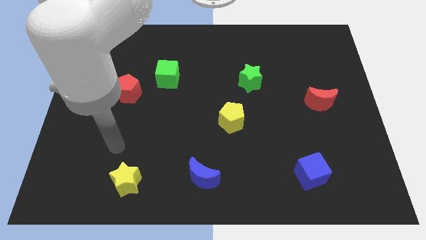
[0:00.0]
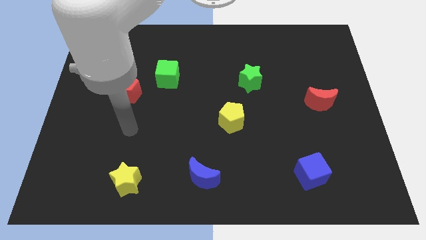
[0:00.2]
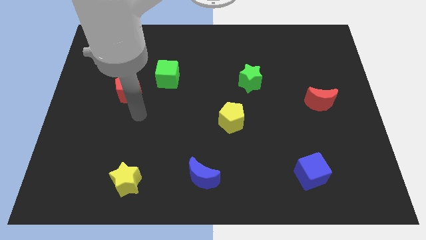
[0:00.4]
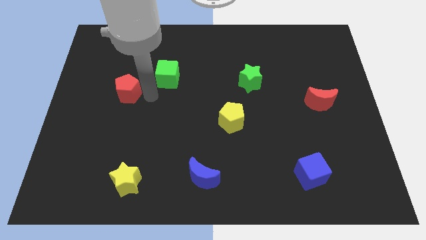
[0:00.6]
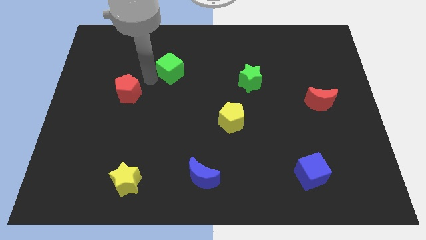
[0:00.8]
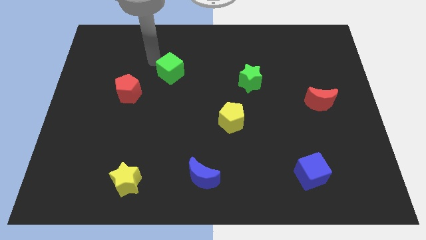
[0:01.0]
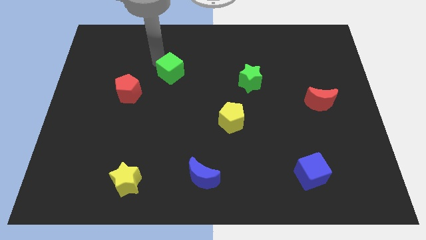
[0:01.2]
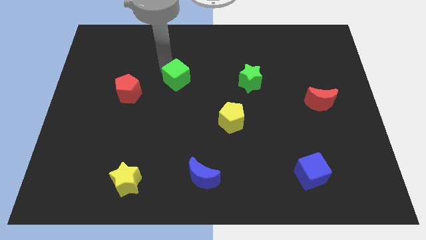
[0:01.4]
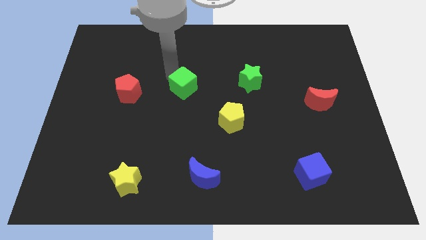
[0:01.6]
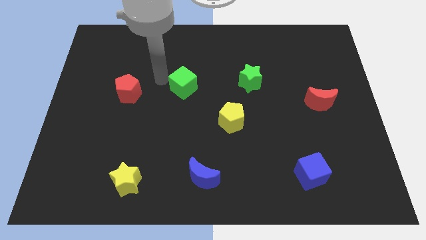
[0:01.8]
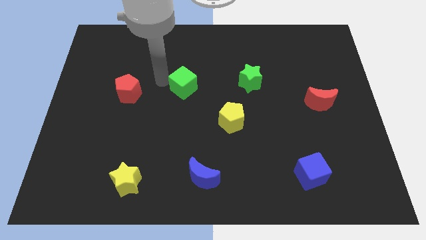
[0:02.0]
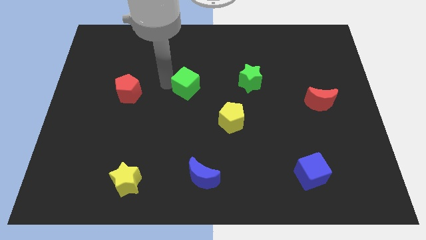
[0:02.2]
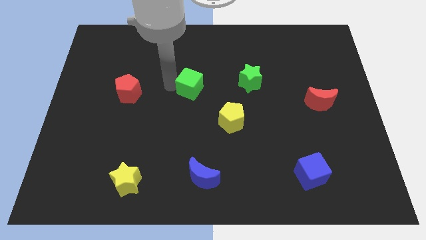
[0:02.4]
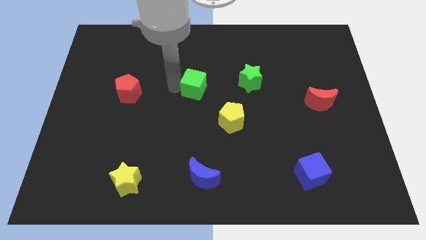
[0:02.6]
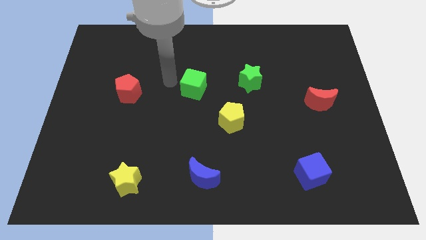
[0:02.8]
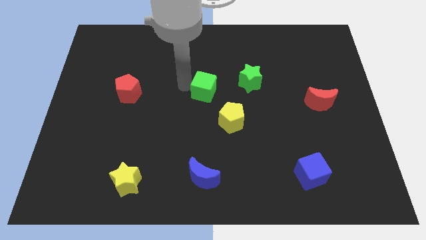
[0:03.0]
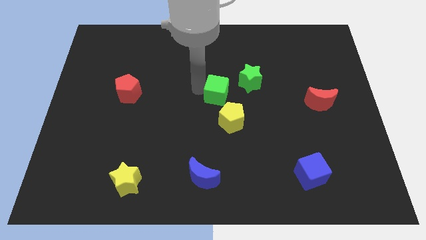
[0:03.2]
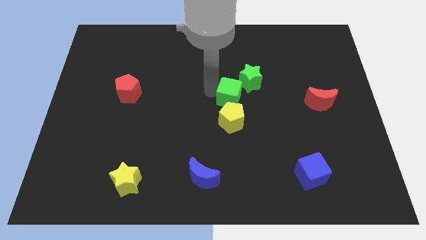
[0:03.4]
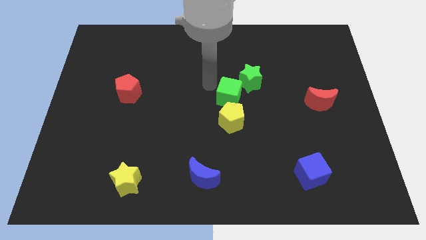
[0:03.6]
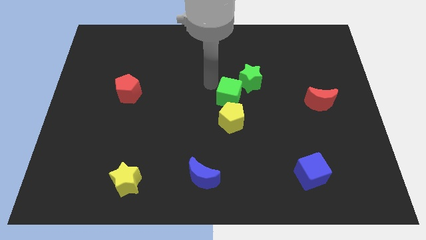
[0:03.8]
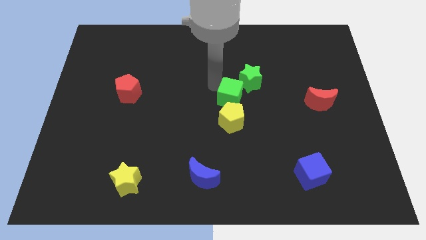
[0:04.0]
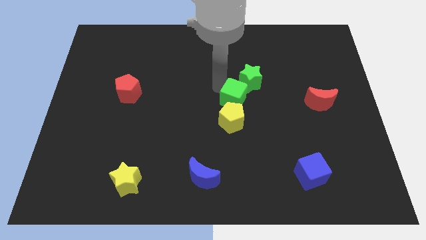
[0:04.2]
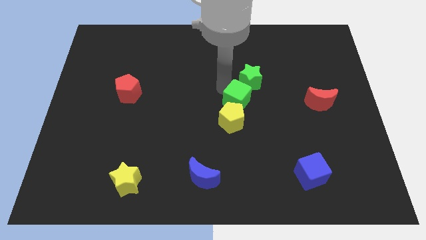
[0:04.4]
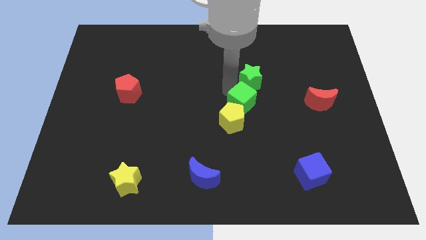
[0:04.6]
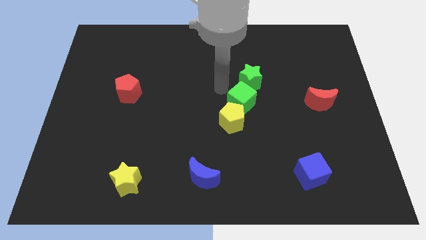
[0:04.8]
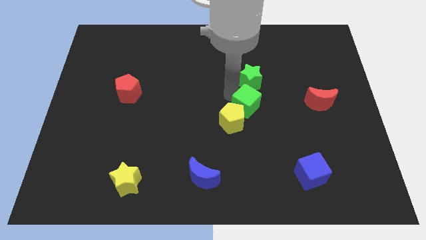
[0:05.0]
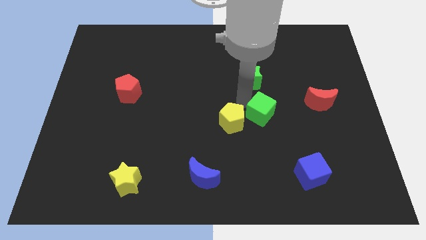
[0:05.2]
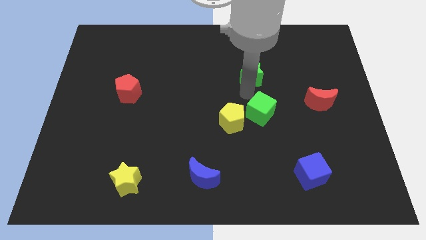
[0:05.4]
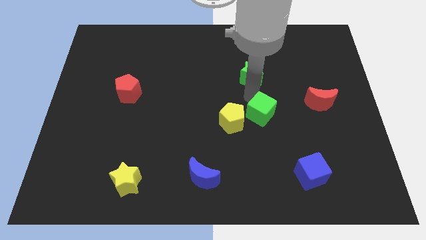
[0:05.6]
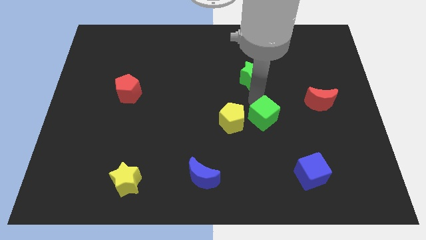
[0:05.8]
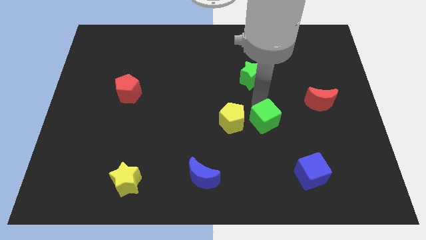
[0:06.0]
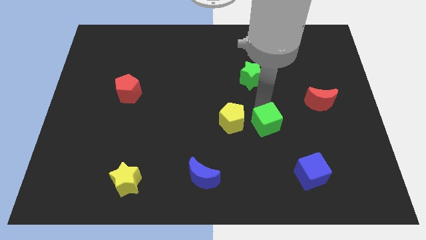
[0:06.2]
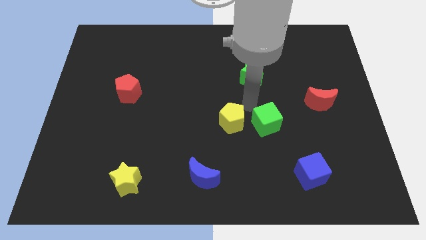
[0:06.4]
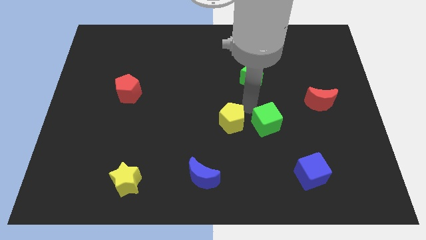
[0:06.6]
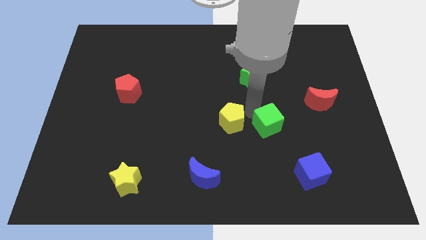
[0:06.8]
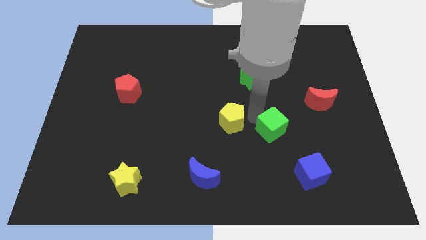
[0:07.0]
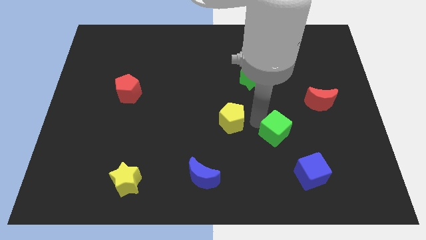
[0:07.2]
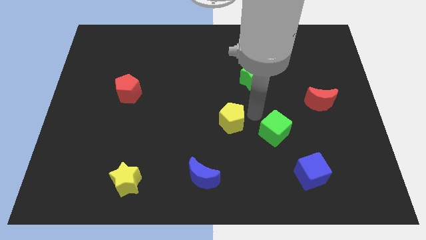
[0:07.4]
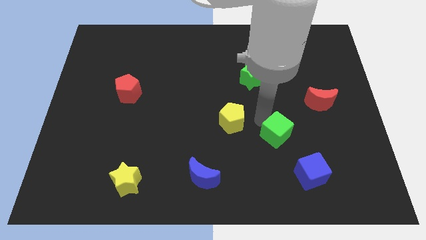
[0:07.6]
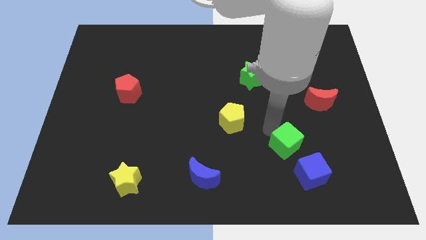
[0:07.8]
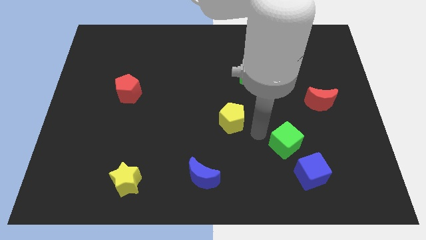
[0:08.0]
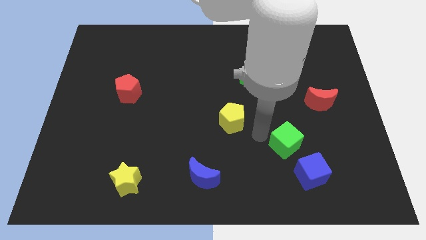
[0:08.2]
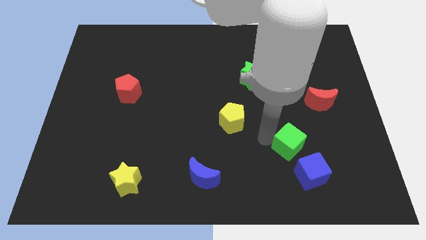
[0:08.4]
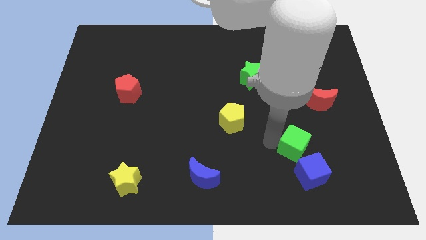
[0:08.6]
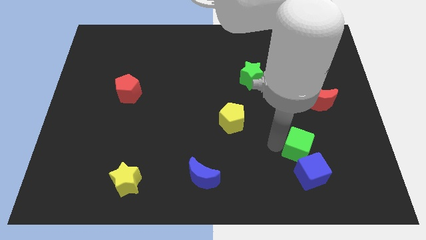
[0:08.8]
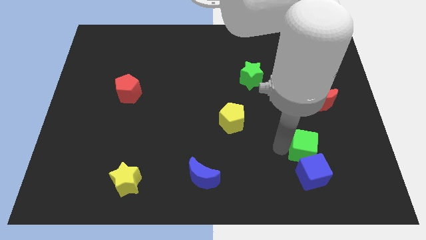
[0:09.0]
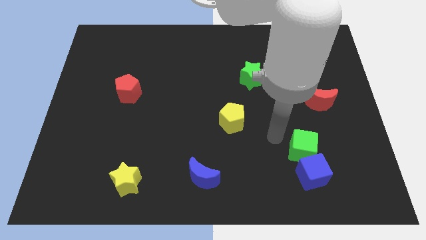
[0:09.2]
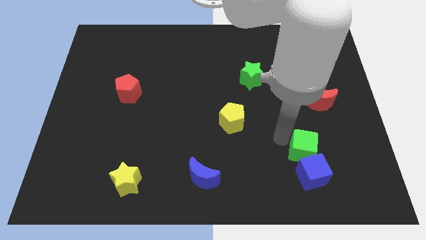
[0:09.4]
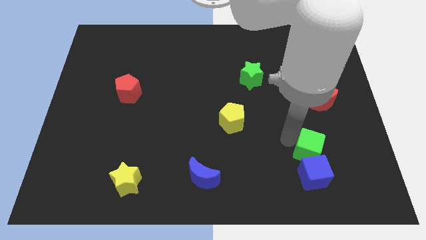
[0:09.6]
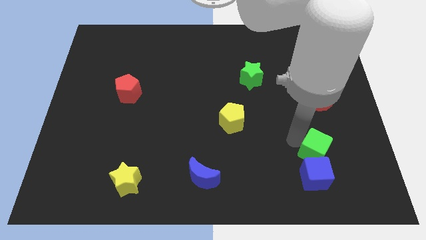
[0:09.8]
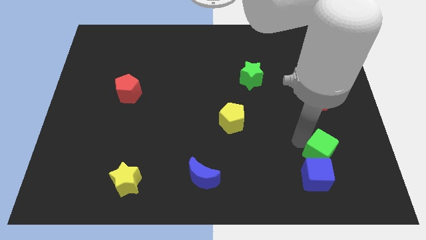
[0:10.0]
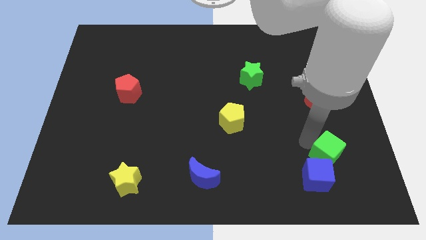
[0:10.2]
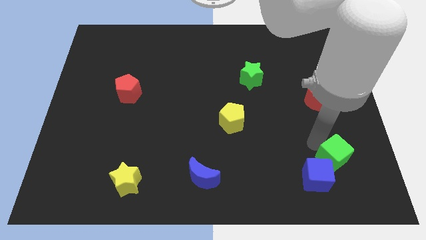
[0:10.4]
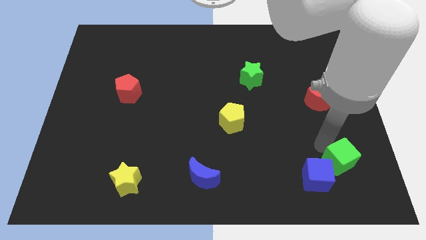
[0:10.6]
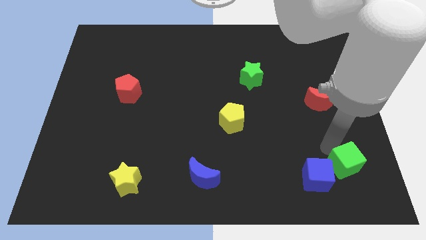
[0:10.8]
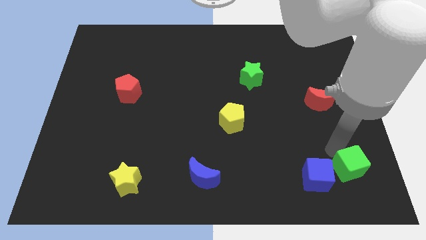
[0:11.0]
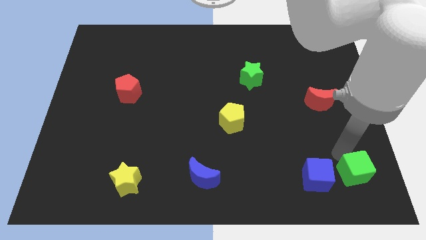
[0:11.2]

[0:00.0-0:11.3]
slide the green cube to the bottom right corner

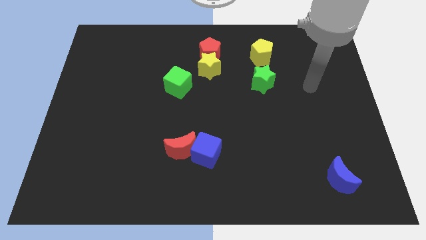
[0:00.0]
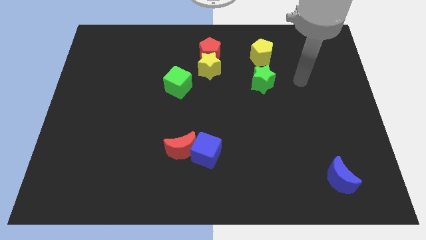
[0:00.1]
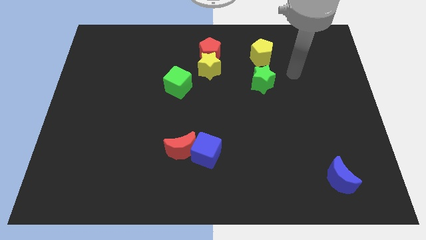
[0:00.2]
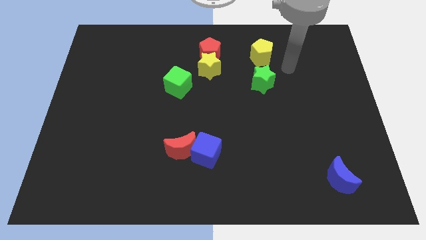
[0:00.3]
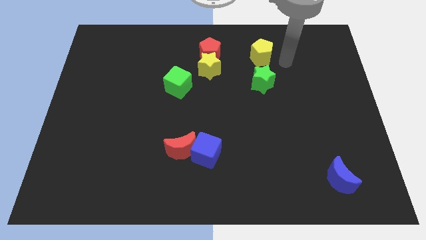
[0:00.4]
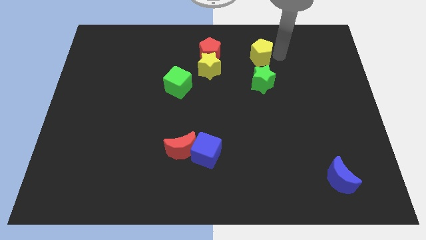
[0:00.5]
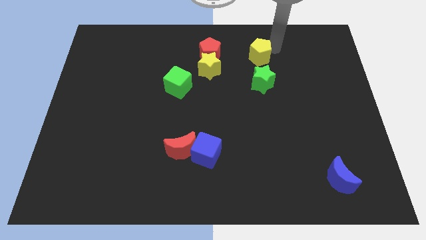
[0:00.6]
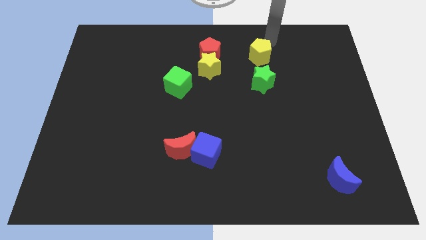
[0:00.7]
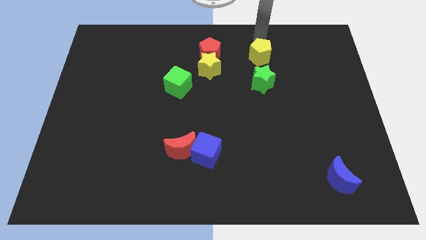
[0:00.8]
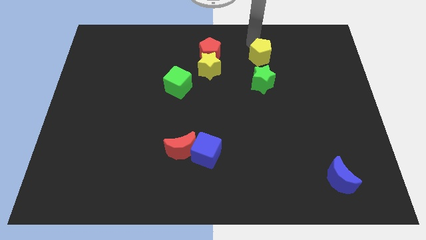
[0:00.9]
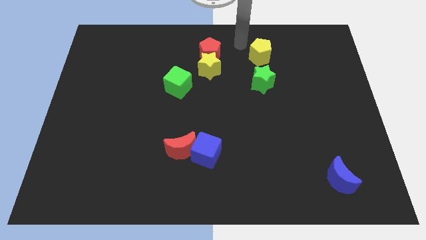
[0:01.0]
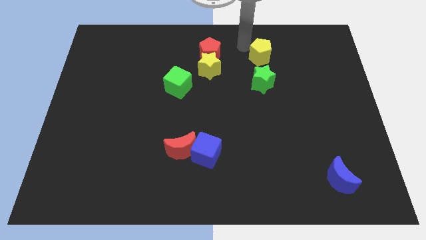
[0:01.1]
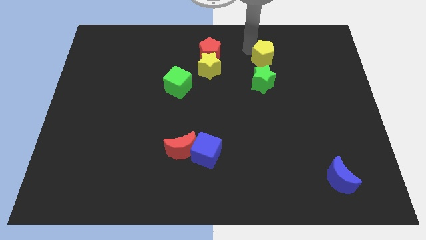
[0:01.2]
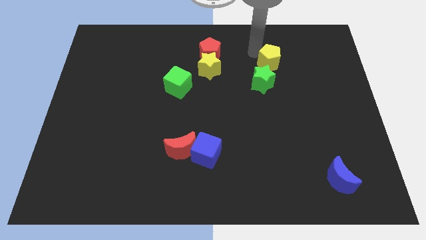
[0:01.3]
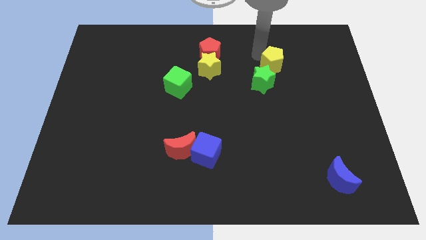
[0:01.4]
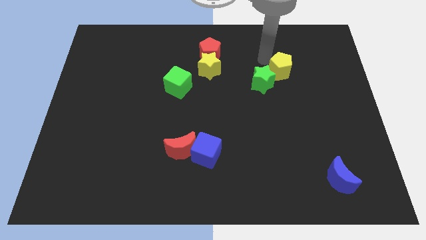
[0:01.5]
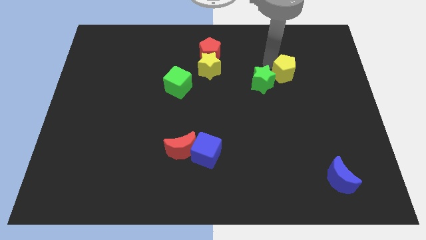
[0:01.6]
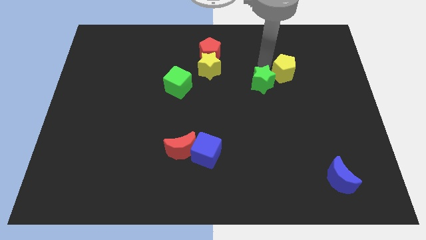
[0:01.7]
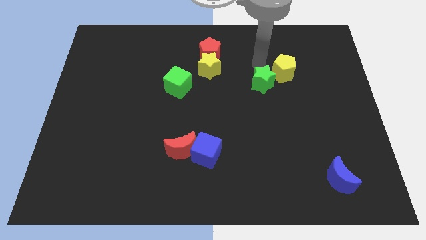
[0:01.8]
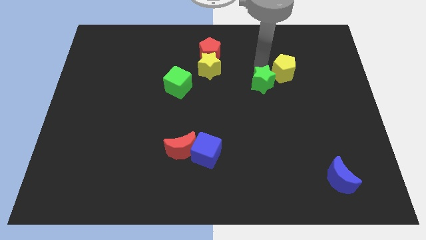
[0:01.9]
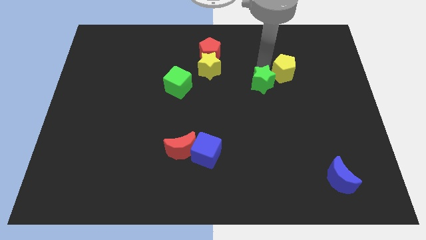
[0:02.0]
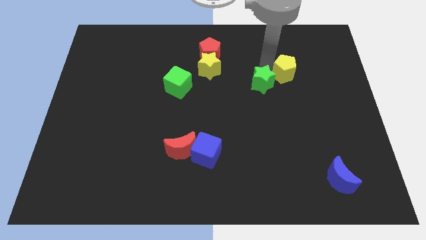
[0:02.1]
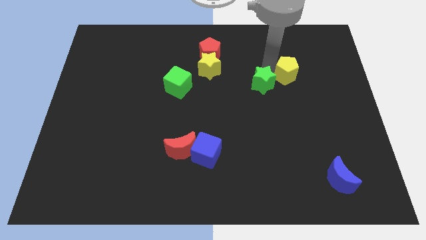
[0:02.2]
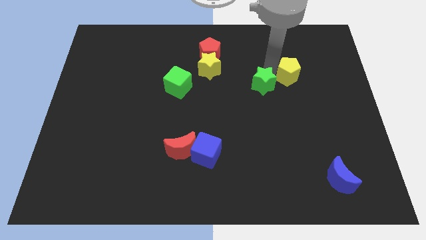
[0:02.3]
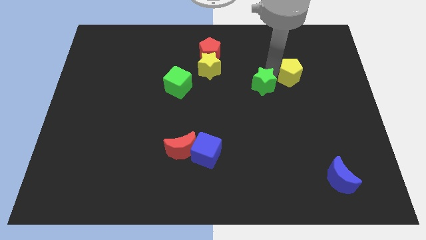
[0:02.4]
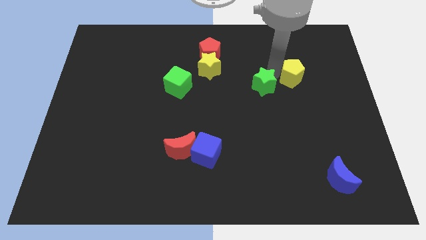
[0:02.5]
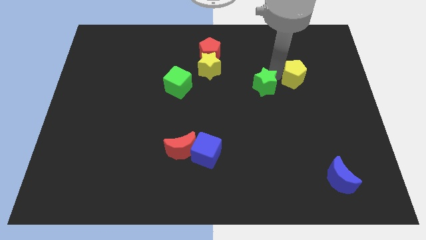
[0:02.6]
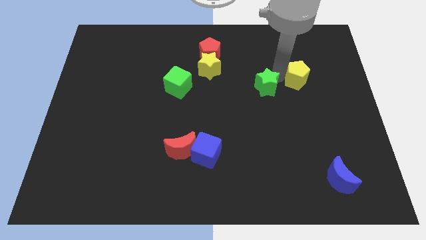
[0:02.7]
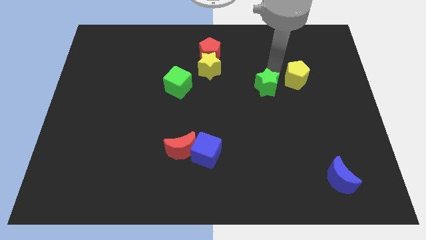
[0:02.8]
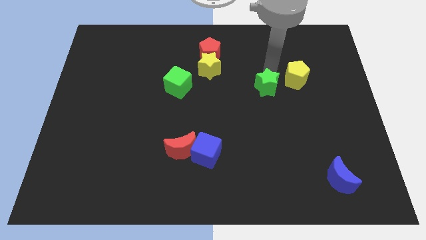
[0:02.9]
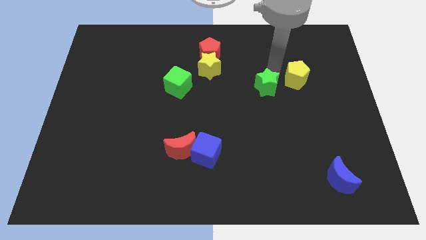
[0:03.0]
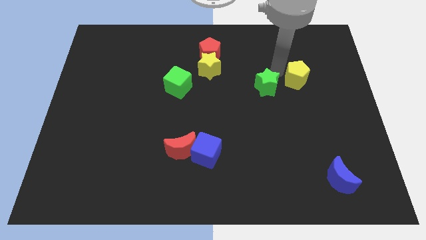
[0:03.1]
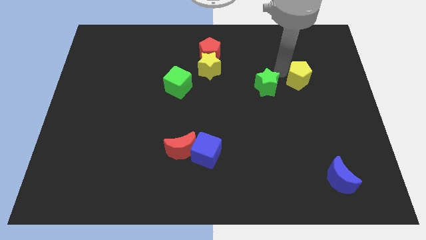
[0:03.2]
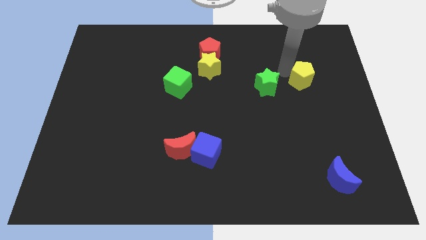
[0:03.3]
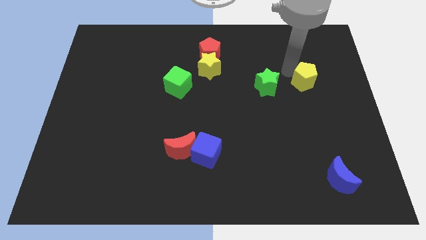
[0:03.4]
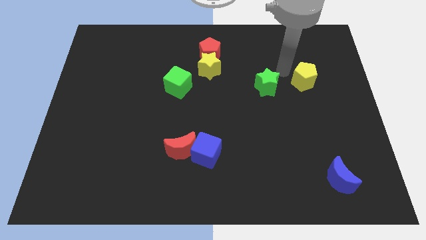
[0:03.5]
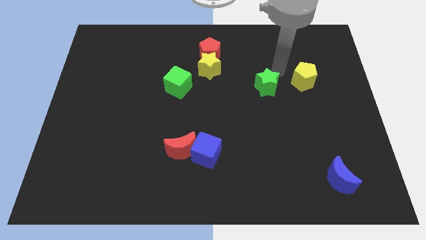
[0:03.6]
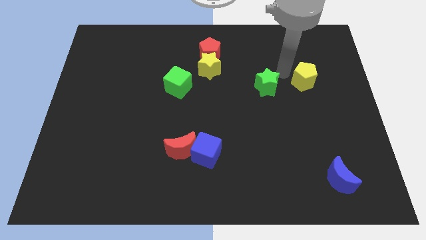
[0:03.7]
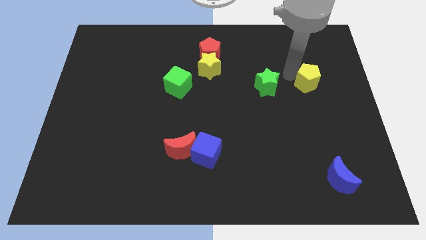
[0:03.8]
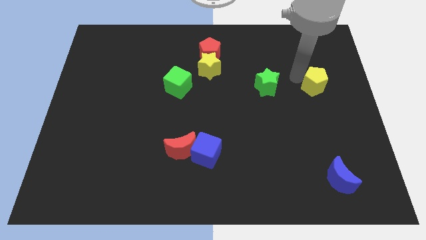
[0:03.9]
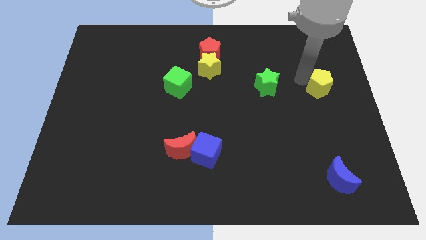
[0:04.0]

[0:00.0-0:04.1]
slide the yellow pentagon to the center right
